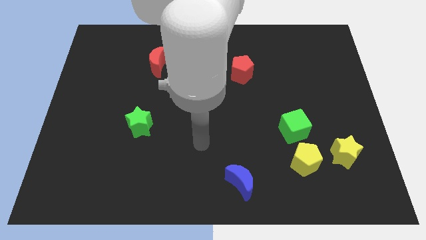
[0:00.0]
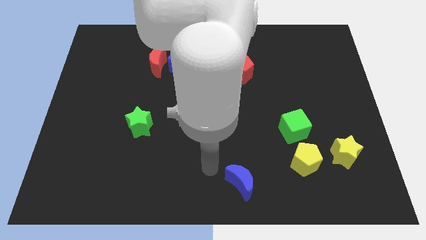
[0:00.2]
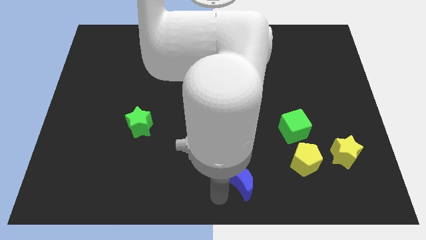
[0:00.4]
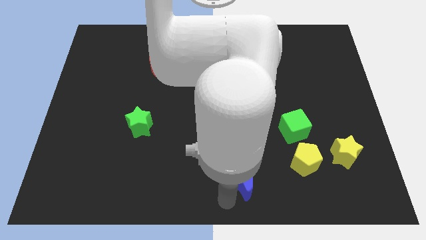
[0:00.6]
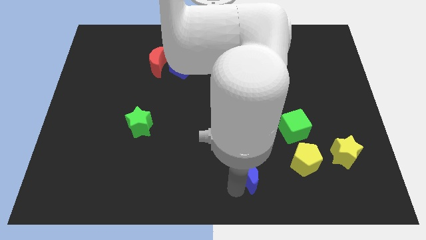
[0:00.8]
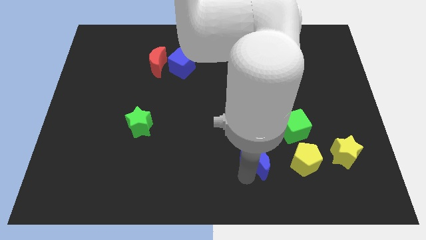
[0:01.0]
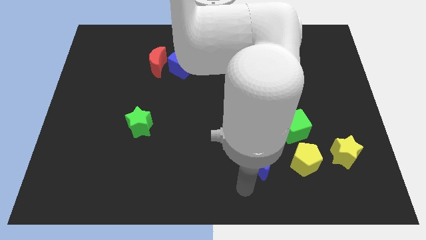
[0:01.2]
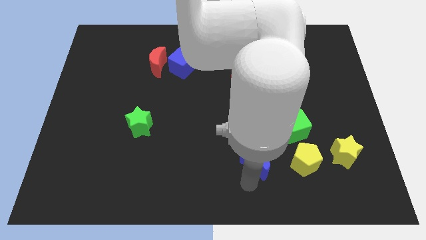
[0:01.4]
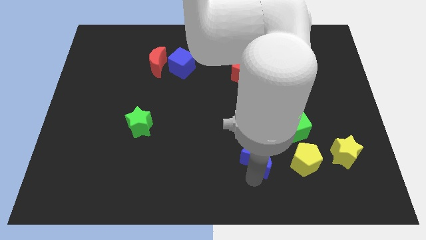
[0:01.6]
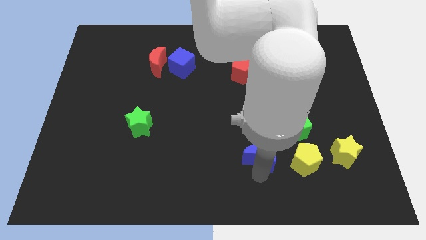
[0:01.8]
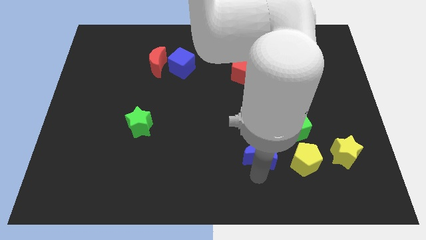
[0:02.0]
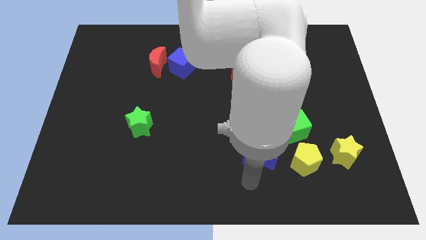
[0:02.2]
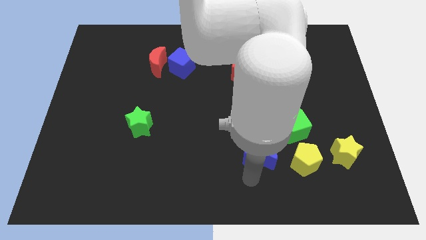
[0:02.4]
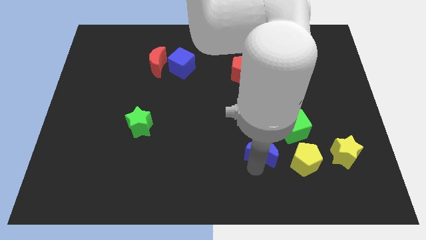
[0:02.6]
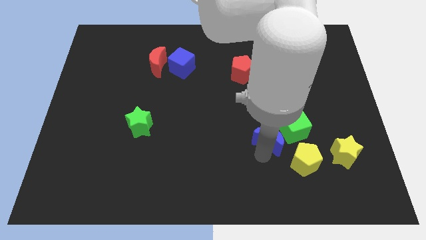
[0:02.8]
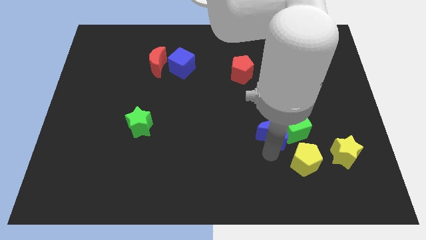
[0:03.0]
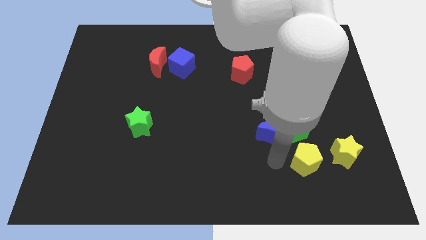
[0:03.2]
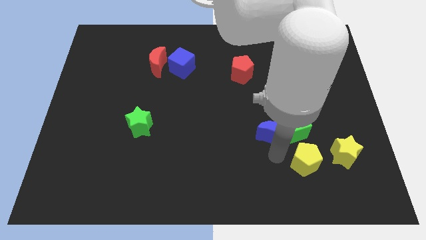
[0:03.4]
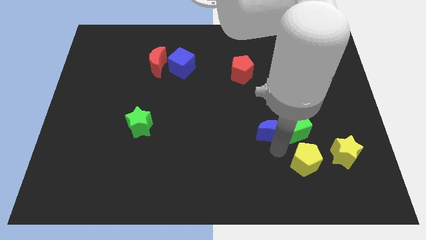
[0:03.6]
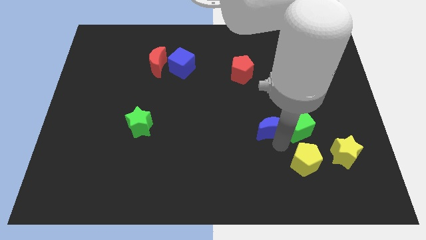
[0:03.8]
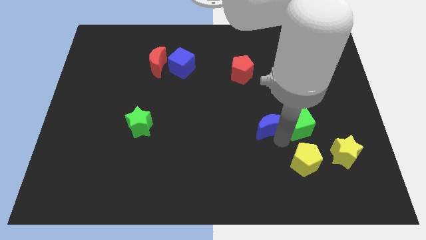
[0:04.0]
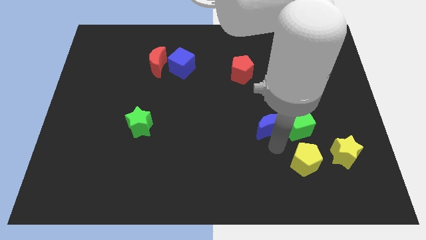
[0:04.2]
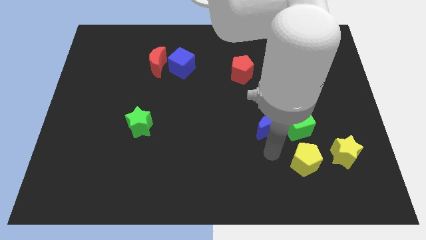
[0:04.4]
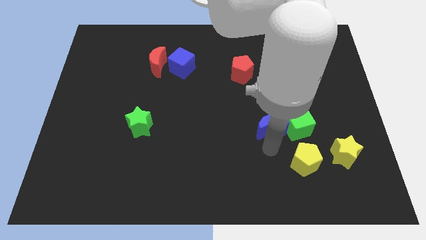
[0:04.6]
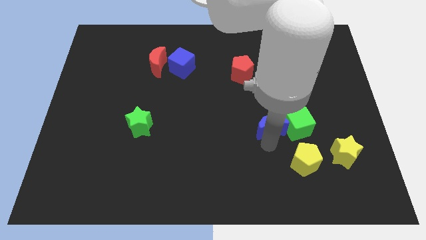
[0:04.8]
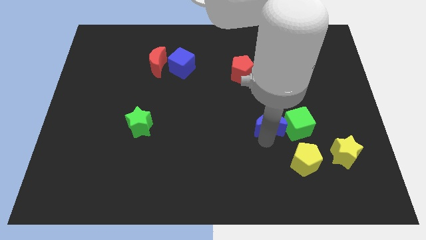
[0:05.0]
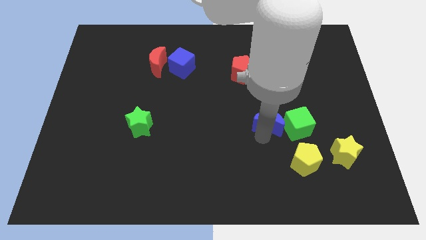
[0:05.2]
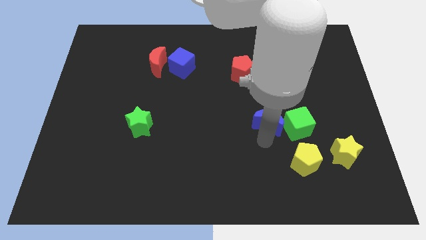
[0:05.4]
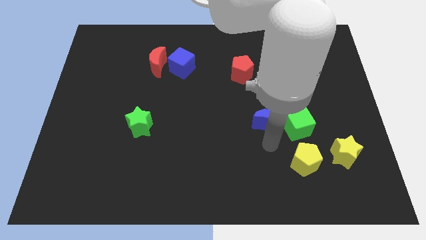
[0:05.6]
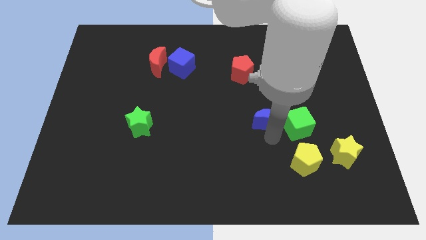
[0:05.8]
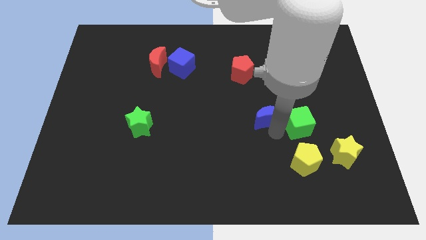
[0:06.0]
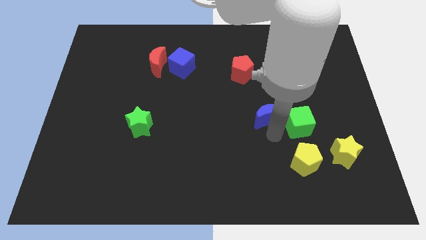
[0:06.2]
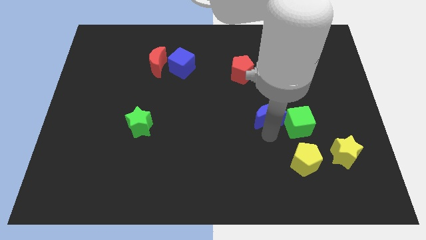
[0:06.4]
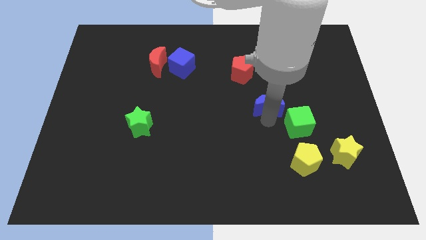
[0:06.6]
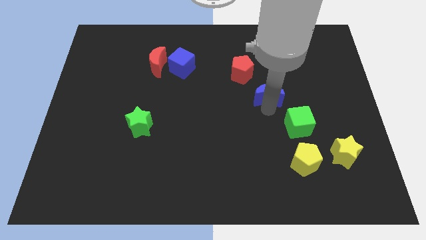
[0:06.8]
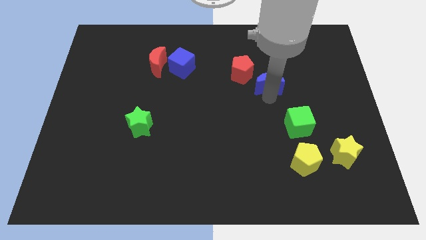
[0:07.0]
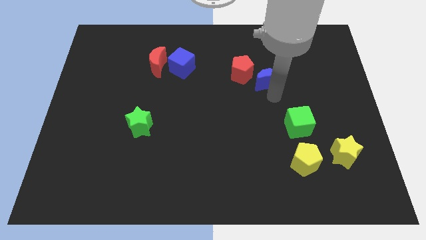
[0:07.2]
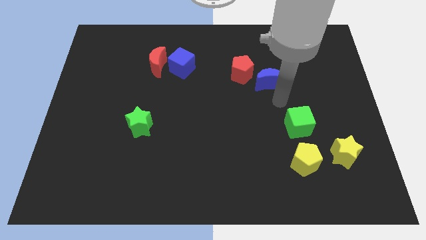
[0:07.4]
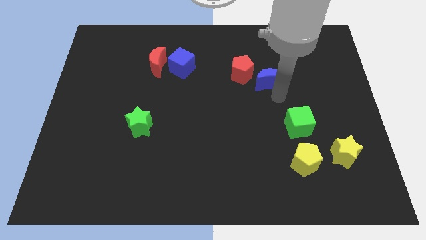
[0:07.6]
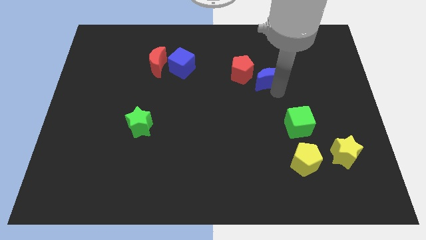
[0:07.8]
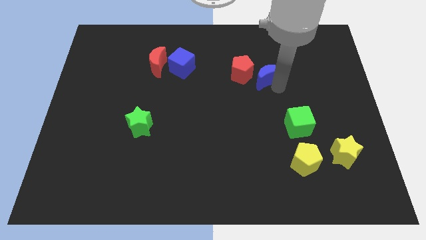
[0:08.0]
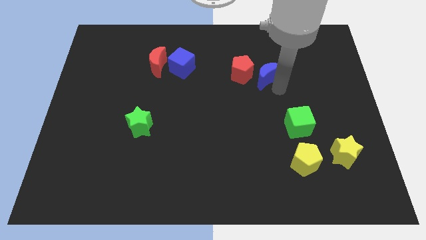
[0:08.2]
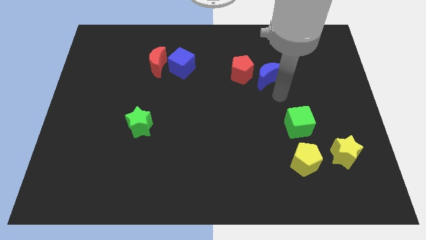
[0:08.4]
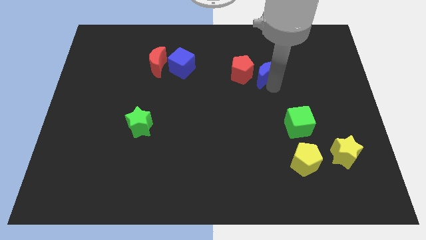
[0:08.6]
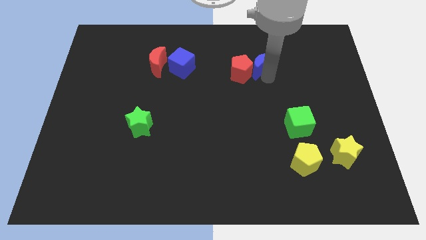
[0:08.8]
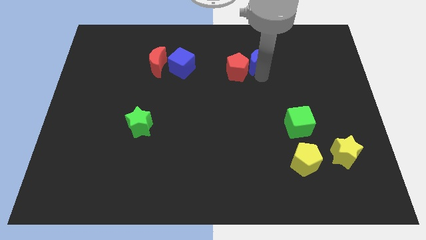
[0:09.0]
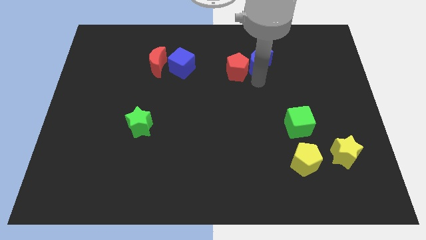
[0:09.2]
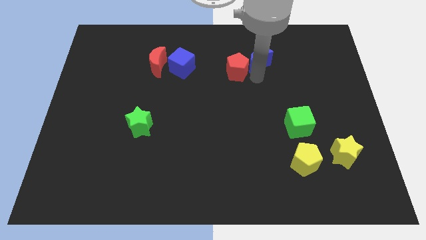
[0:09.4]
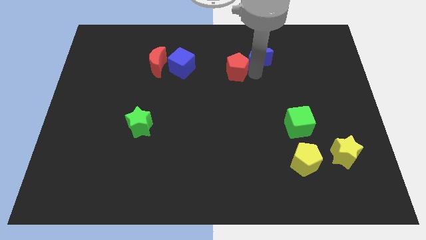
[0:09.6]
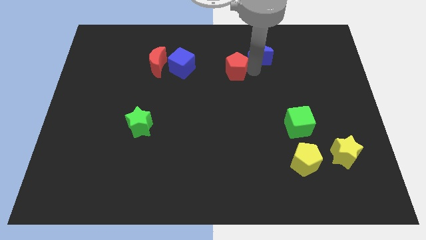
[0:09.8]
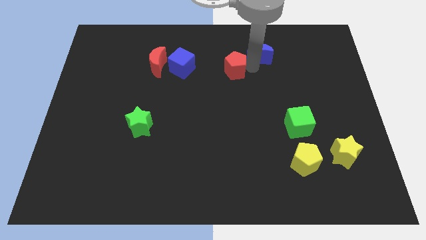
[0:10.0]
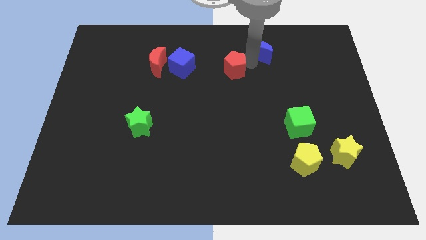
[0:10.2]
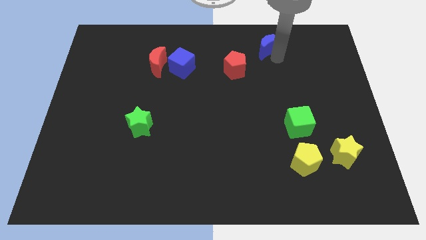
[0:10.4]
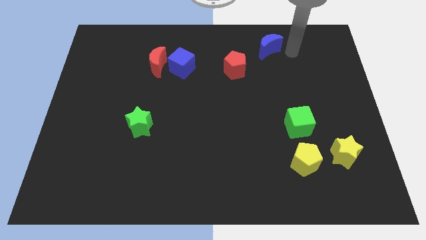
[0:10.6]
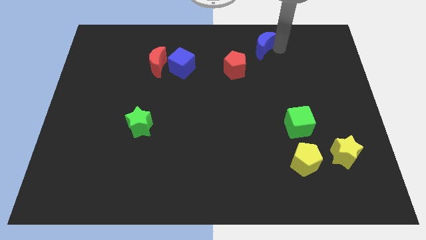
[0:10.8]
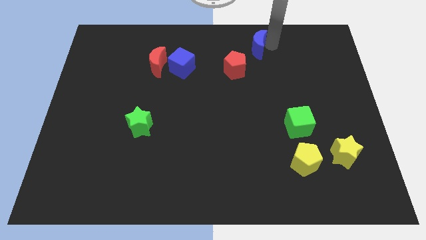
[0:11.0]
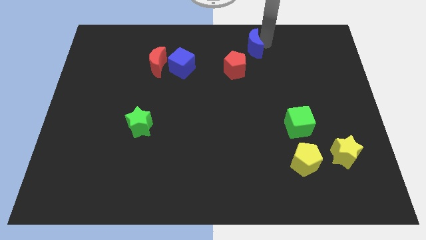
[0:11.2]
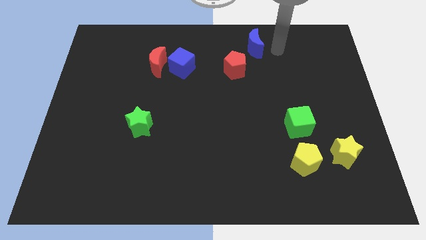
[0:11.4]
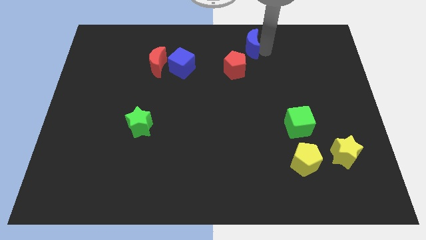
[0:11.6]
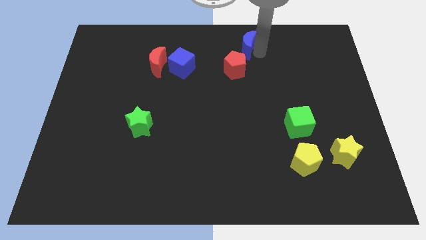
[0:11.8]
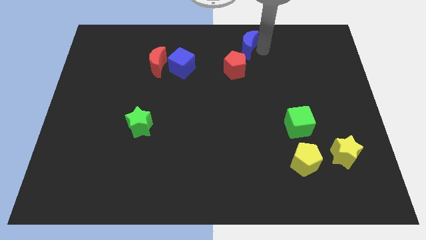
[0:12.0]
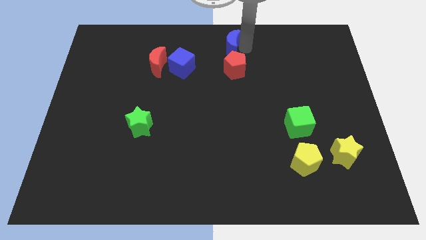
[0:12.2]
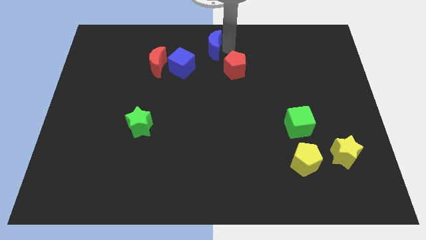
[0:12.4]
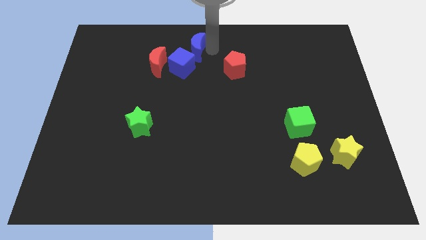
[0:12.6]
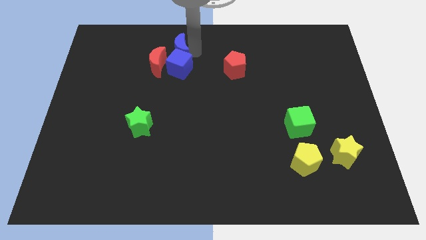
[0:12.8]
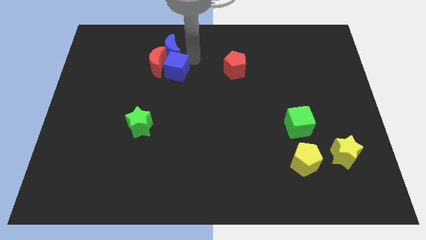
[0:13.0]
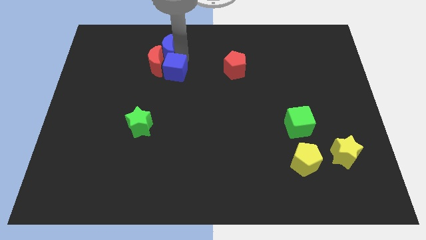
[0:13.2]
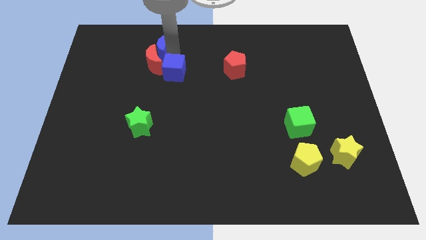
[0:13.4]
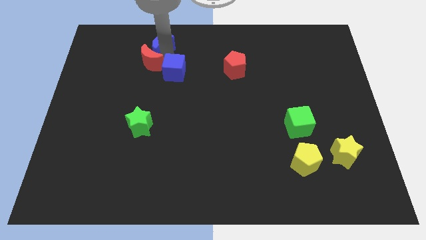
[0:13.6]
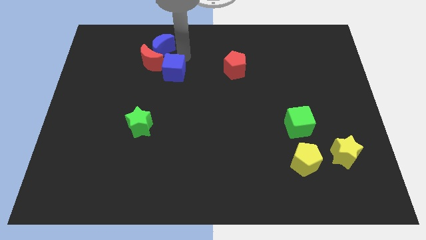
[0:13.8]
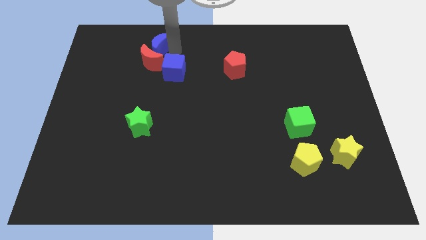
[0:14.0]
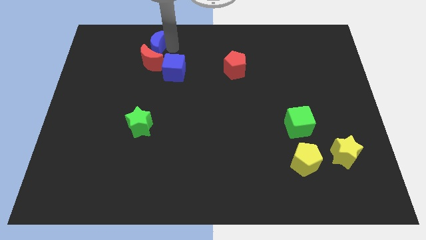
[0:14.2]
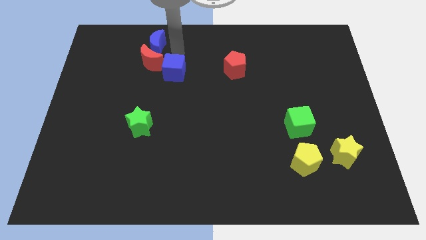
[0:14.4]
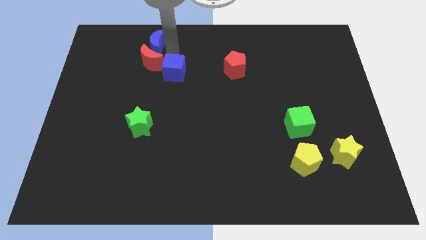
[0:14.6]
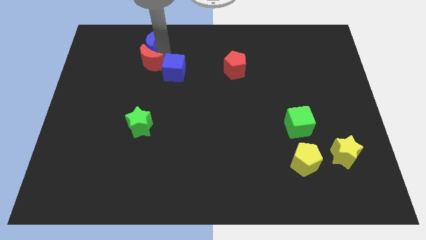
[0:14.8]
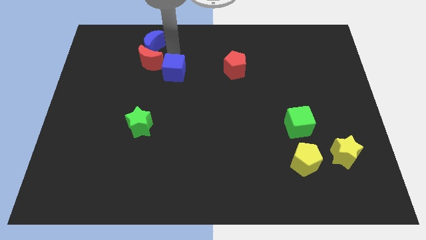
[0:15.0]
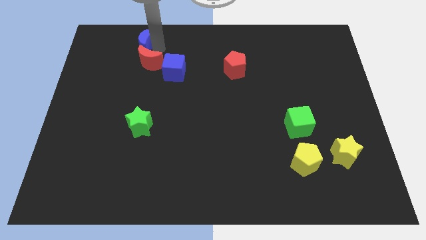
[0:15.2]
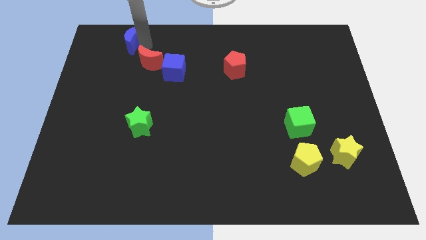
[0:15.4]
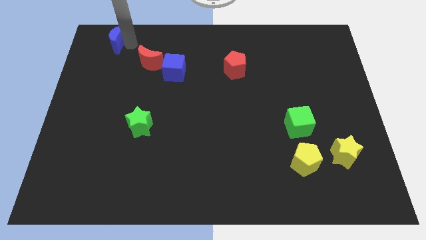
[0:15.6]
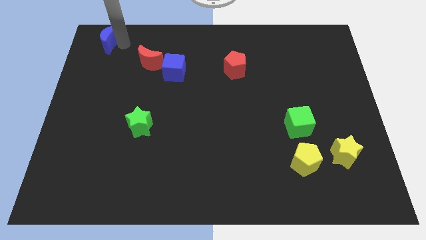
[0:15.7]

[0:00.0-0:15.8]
push the blue moon to the upper left corner
